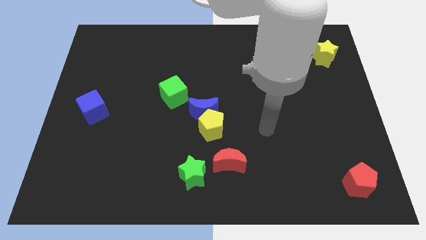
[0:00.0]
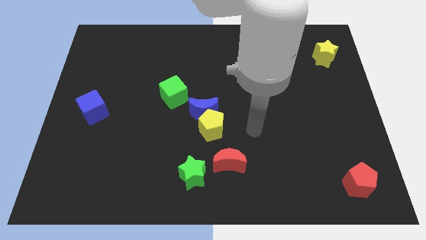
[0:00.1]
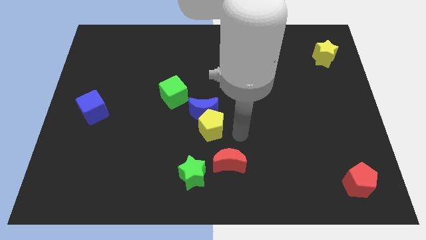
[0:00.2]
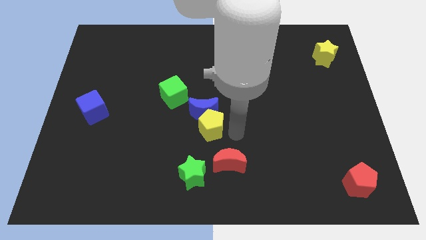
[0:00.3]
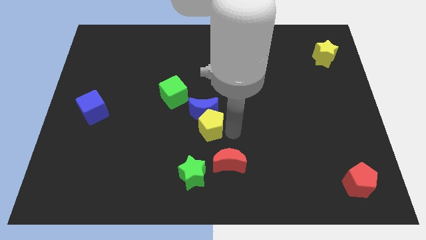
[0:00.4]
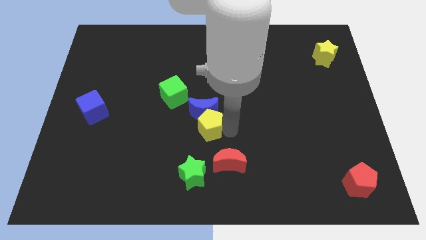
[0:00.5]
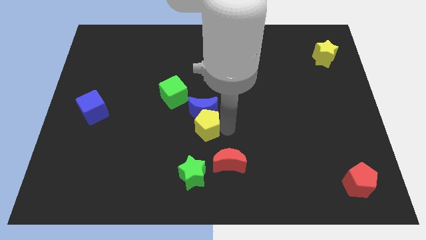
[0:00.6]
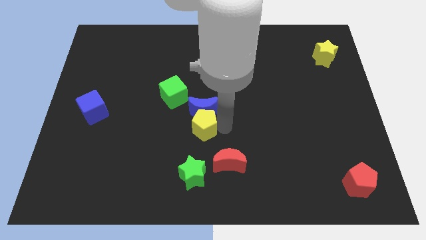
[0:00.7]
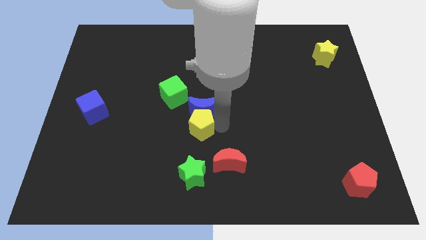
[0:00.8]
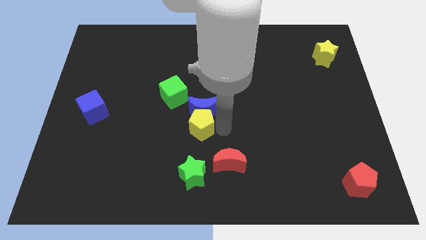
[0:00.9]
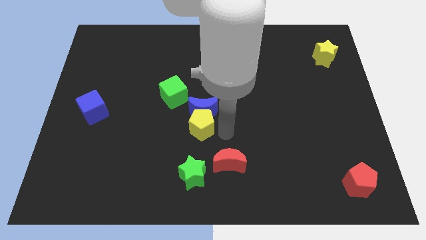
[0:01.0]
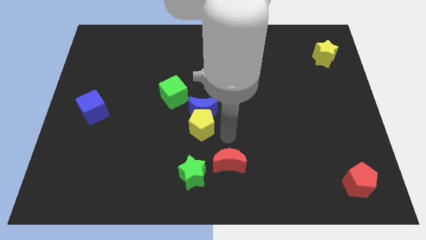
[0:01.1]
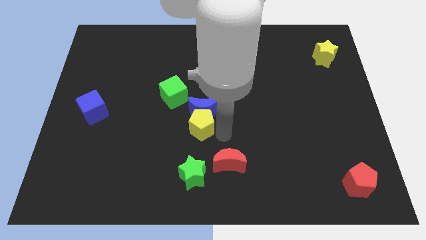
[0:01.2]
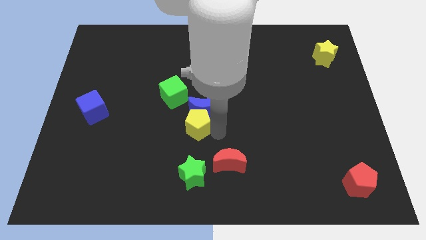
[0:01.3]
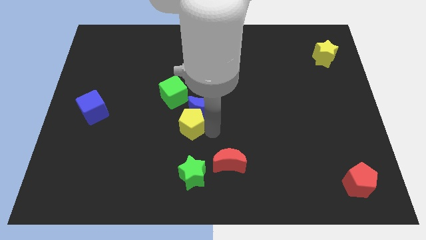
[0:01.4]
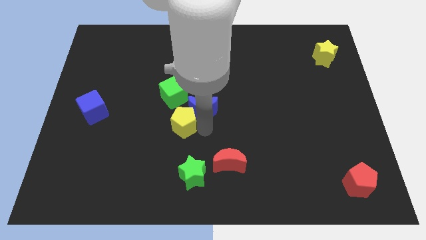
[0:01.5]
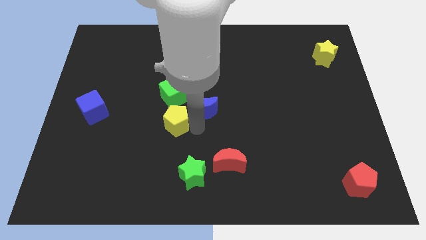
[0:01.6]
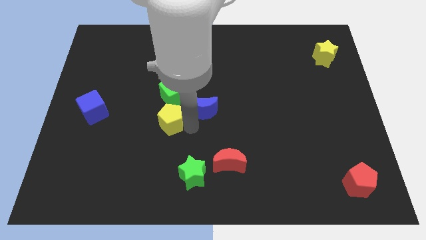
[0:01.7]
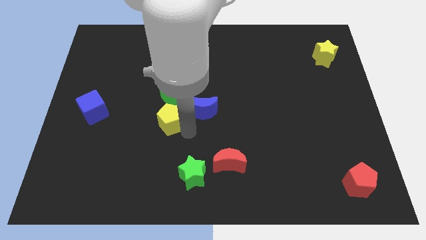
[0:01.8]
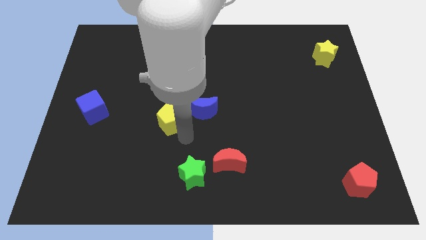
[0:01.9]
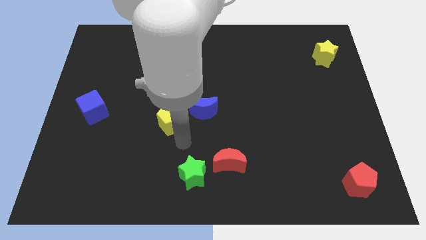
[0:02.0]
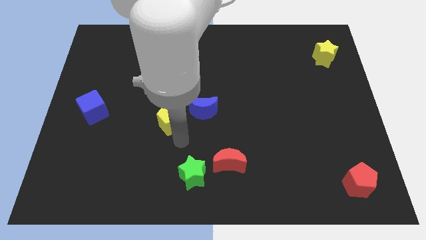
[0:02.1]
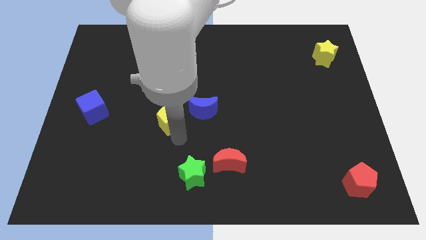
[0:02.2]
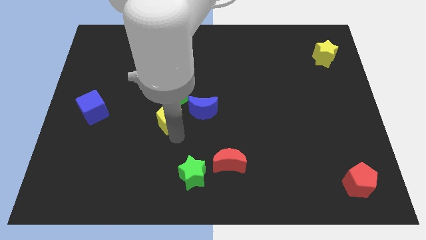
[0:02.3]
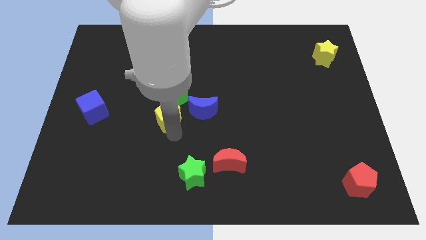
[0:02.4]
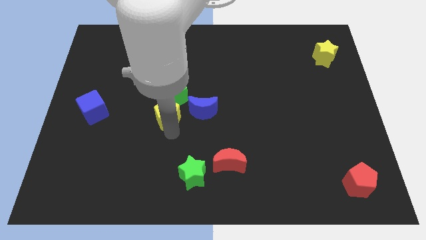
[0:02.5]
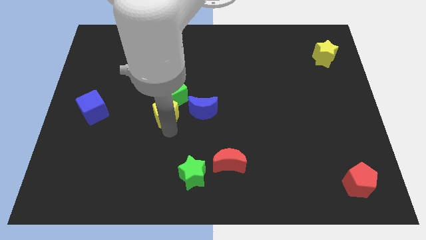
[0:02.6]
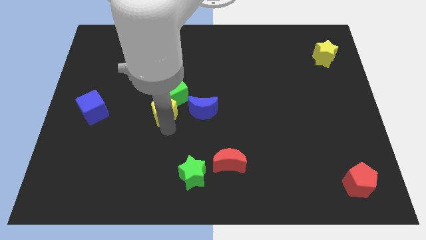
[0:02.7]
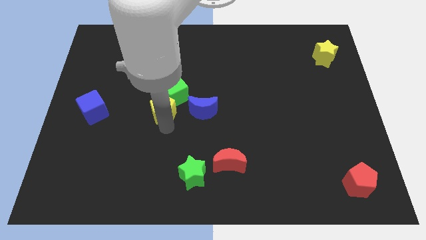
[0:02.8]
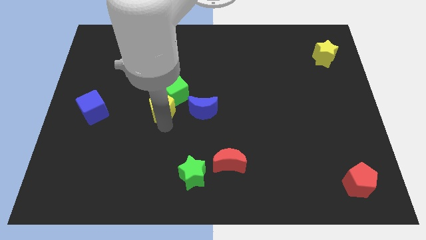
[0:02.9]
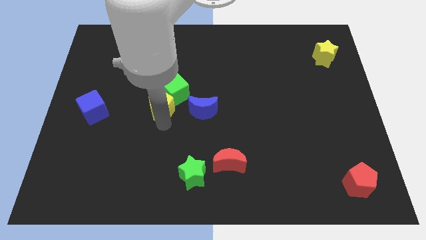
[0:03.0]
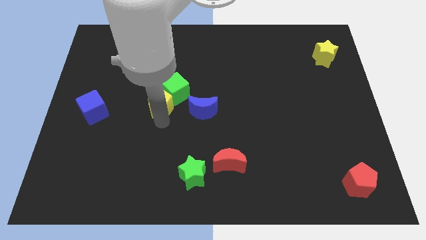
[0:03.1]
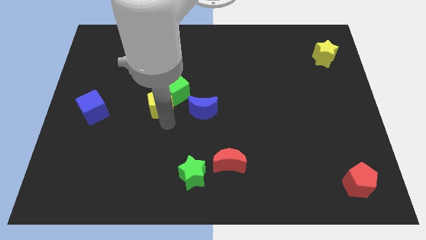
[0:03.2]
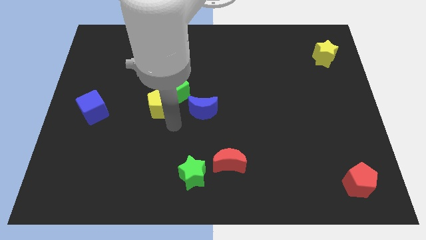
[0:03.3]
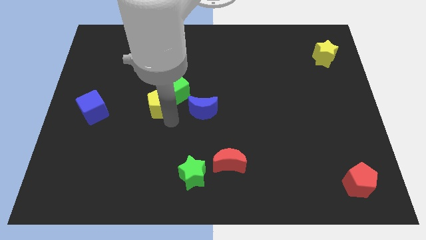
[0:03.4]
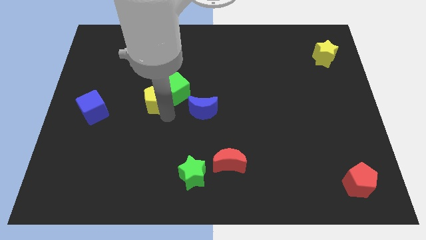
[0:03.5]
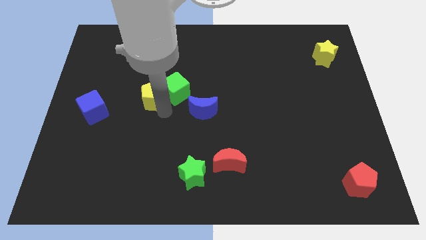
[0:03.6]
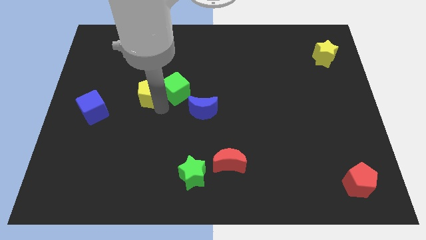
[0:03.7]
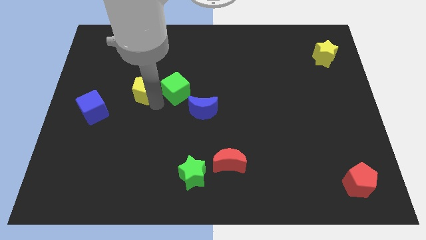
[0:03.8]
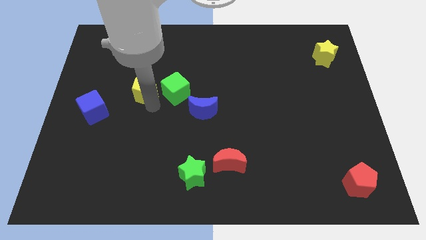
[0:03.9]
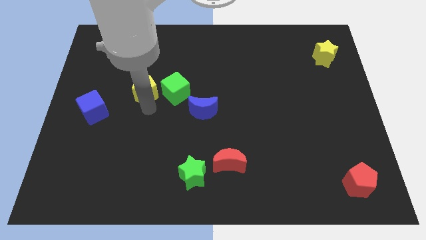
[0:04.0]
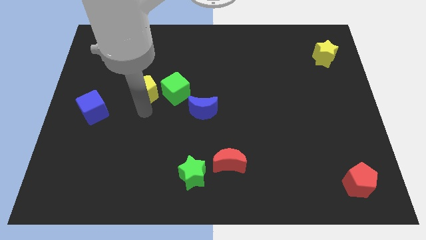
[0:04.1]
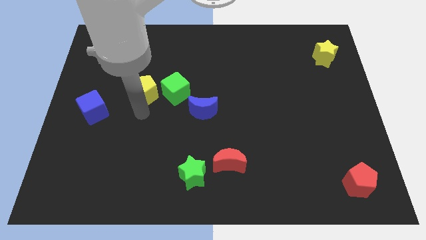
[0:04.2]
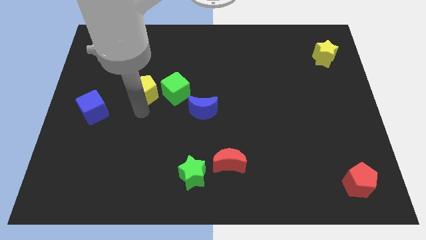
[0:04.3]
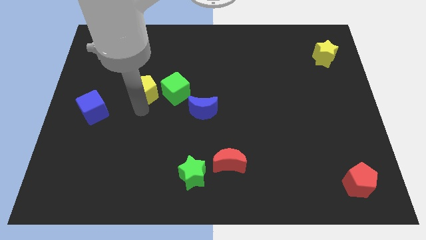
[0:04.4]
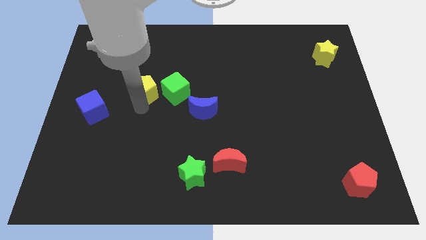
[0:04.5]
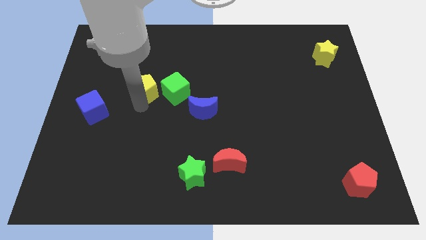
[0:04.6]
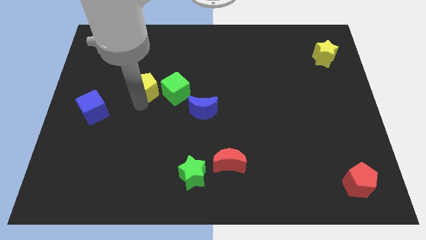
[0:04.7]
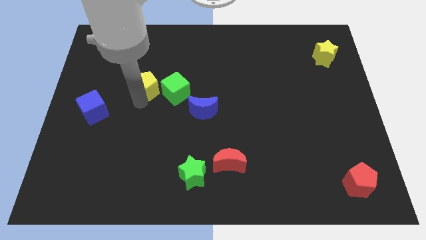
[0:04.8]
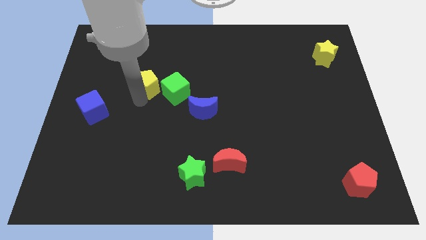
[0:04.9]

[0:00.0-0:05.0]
move the yellow pentagon upwards and to the left diagonally

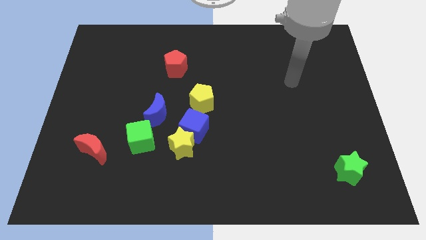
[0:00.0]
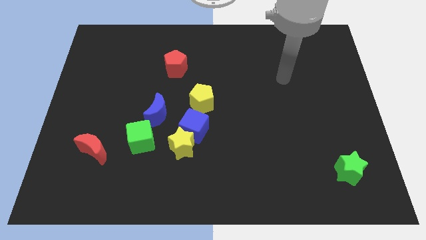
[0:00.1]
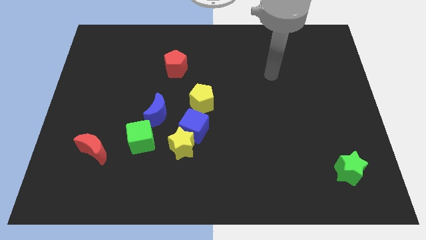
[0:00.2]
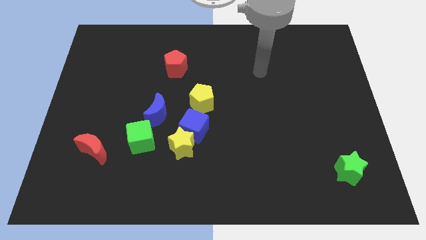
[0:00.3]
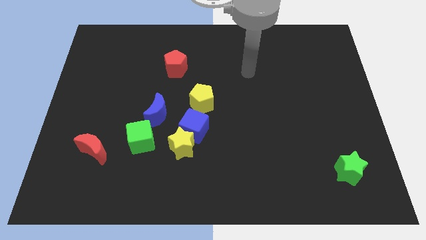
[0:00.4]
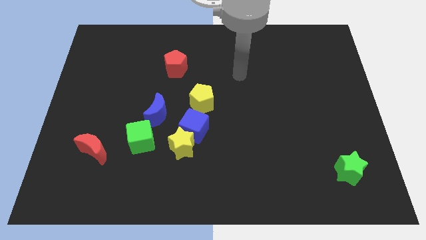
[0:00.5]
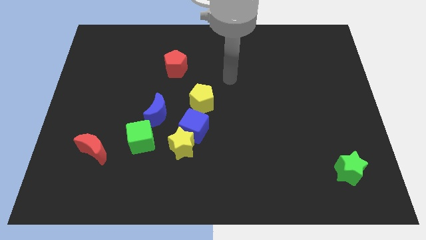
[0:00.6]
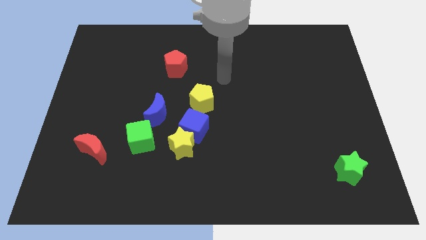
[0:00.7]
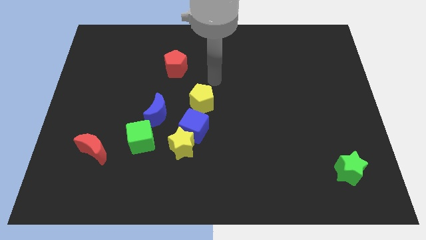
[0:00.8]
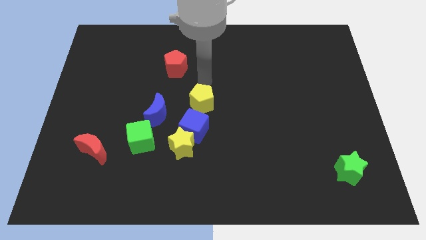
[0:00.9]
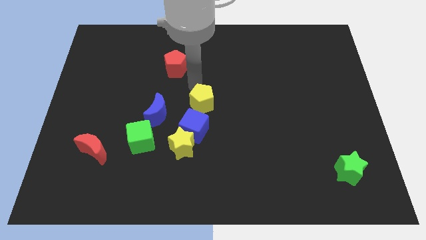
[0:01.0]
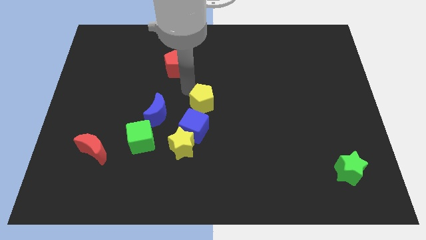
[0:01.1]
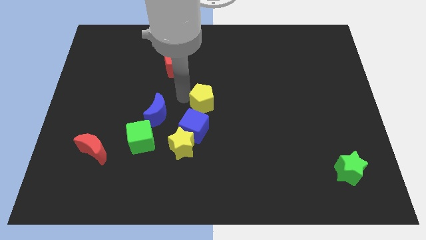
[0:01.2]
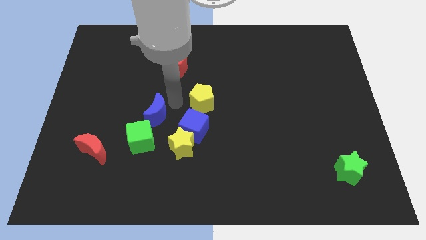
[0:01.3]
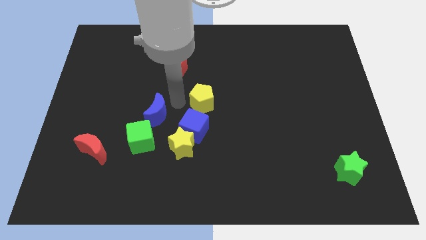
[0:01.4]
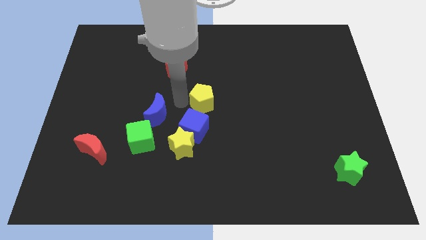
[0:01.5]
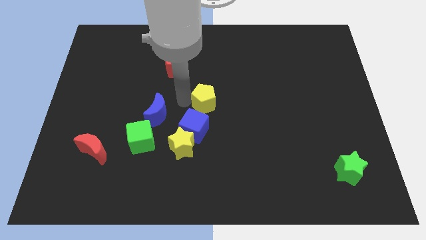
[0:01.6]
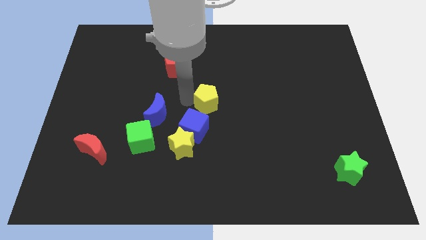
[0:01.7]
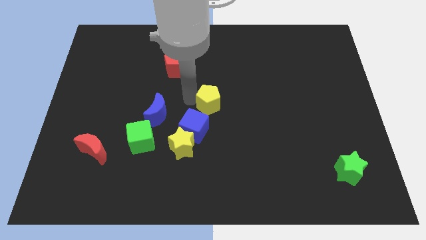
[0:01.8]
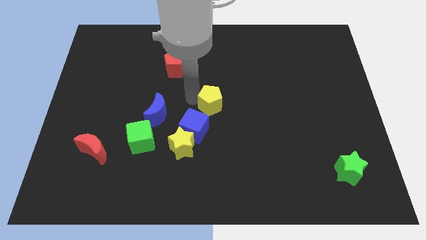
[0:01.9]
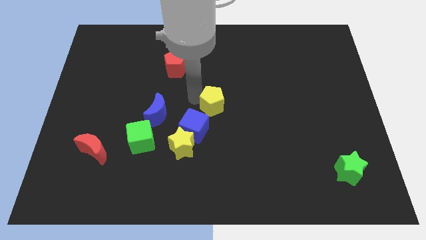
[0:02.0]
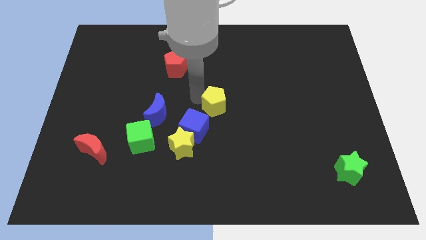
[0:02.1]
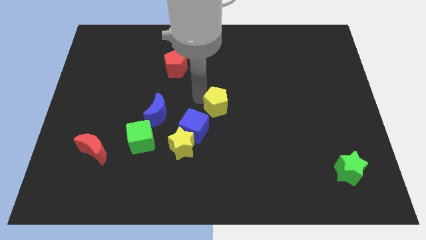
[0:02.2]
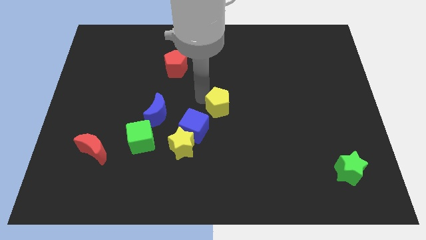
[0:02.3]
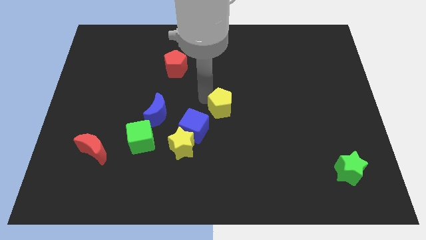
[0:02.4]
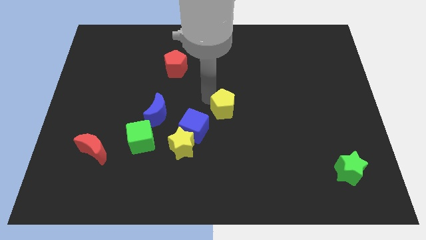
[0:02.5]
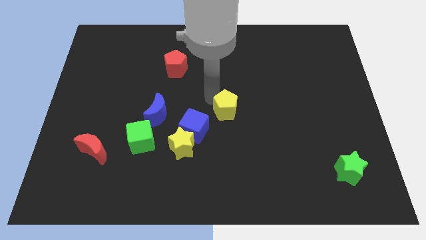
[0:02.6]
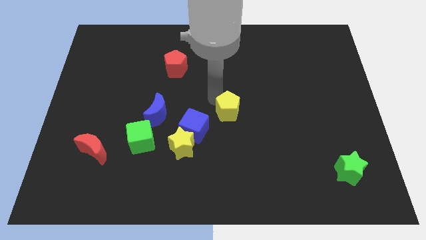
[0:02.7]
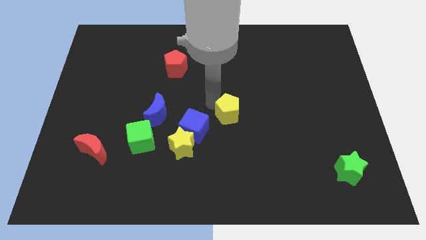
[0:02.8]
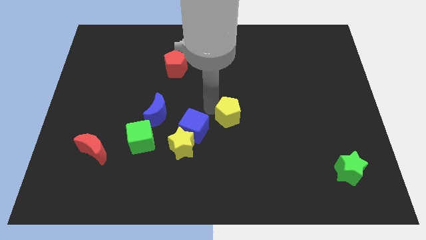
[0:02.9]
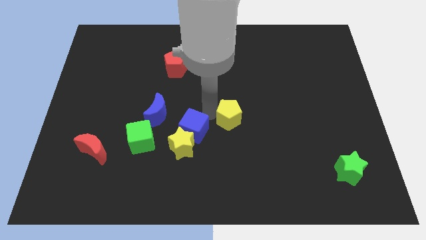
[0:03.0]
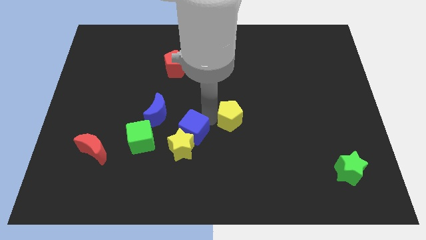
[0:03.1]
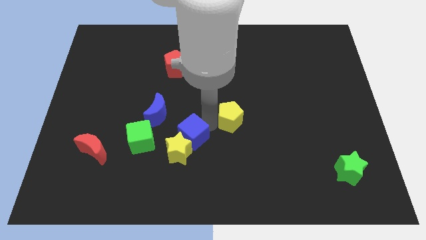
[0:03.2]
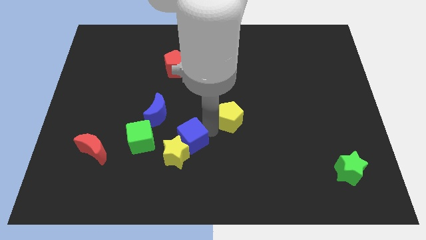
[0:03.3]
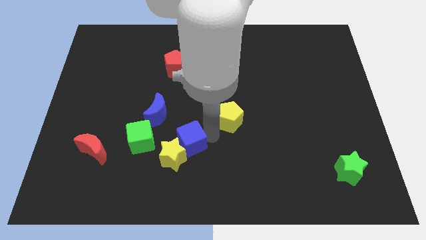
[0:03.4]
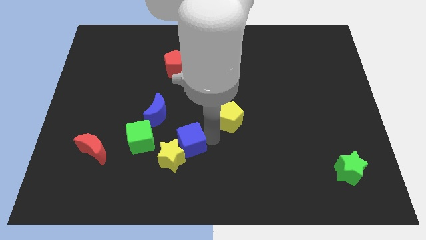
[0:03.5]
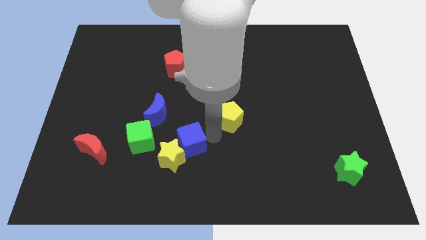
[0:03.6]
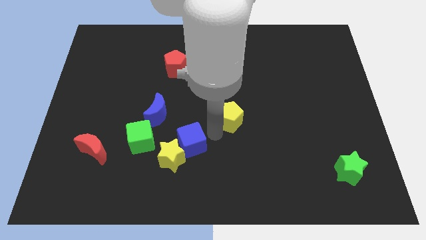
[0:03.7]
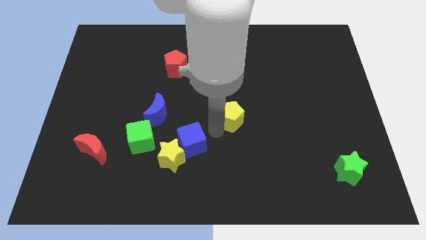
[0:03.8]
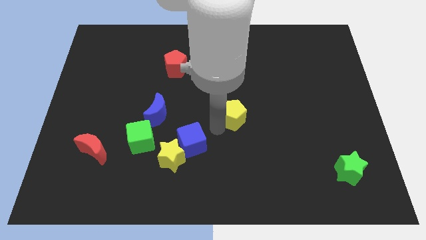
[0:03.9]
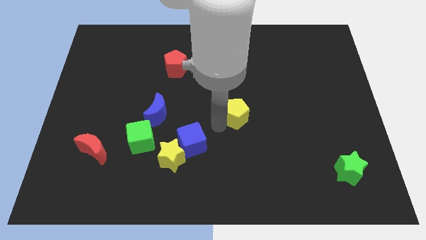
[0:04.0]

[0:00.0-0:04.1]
slide the yellow pentagon slightly right
